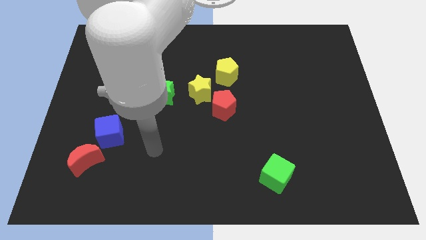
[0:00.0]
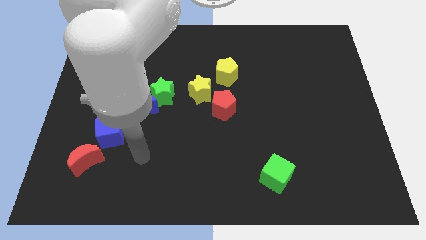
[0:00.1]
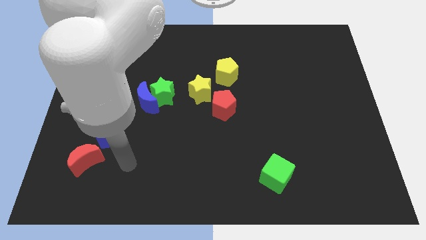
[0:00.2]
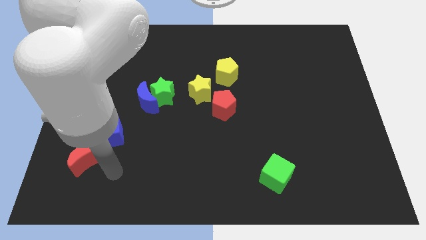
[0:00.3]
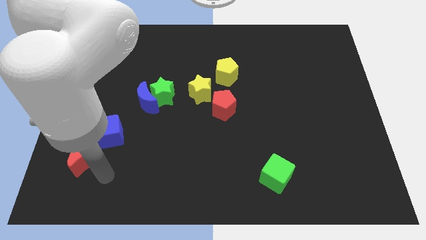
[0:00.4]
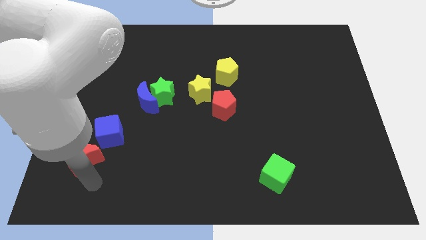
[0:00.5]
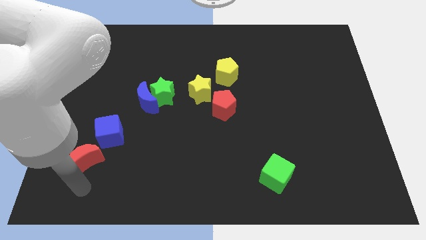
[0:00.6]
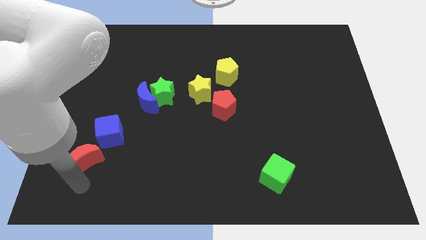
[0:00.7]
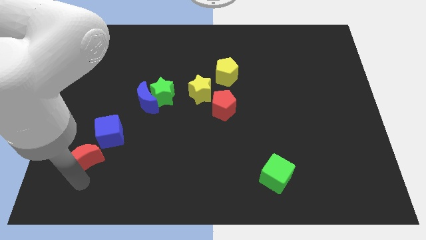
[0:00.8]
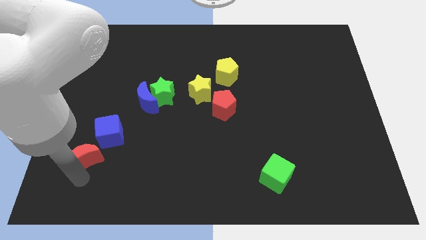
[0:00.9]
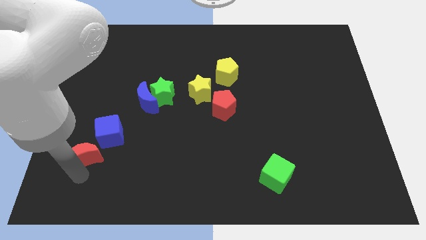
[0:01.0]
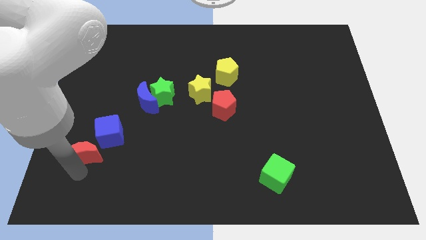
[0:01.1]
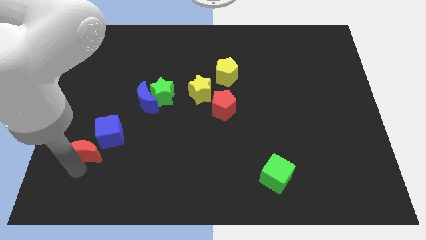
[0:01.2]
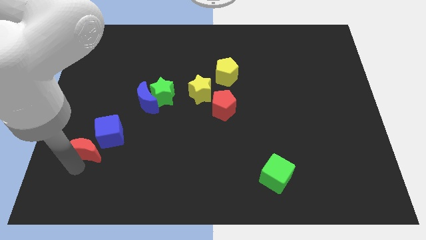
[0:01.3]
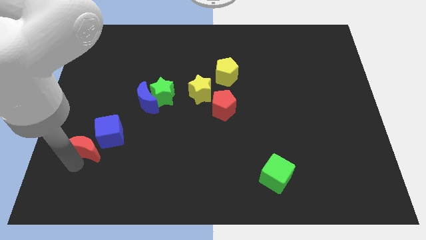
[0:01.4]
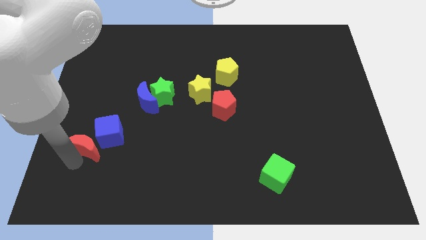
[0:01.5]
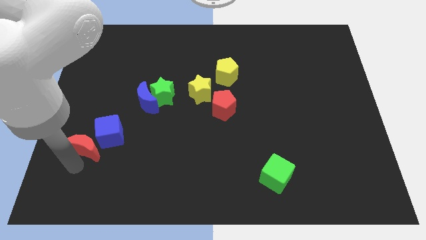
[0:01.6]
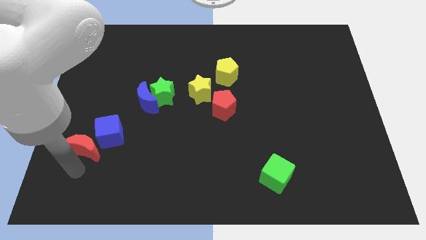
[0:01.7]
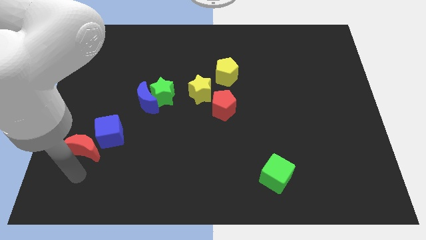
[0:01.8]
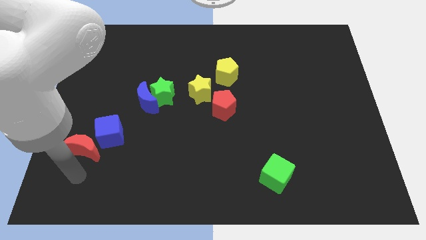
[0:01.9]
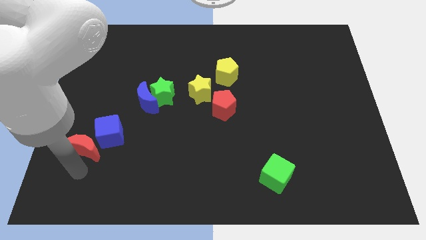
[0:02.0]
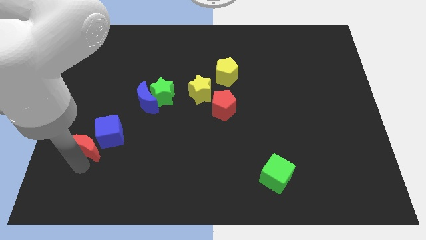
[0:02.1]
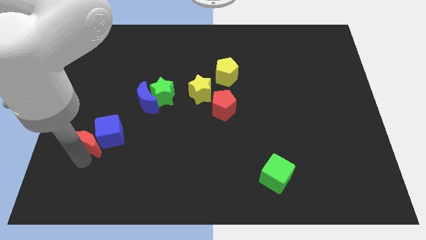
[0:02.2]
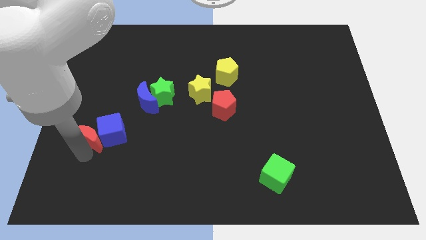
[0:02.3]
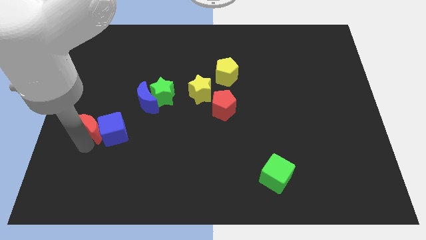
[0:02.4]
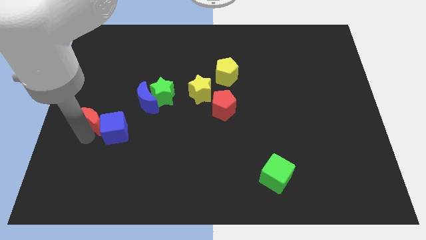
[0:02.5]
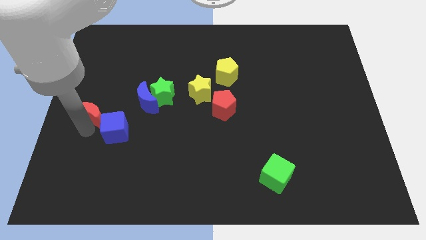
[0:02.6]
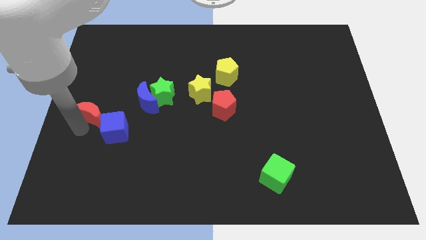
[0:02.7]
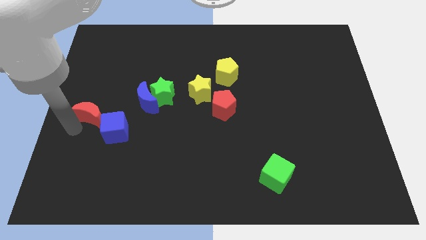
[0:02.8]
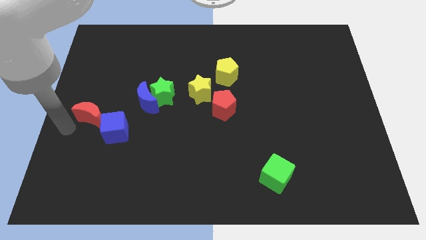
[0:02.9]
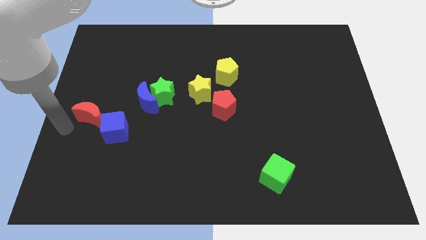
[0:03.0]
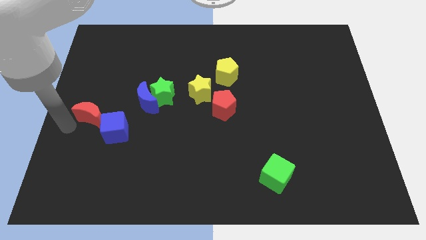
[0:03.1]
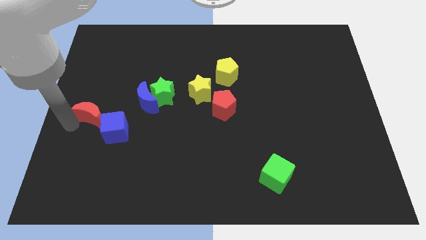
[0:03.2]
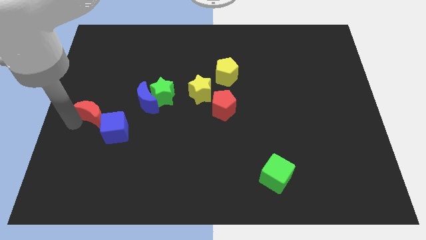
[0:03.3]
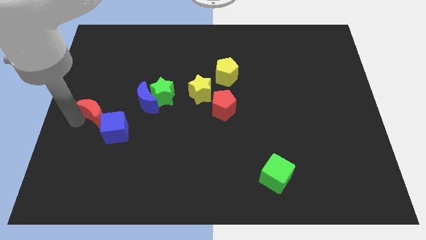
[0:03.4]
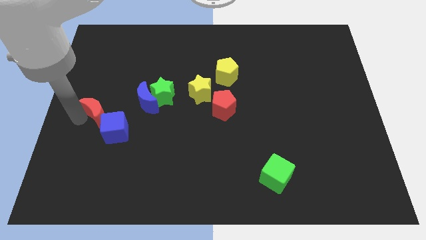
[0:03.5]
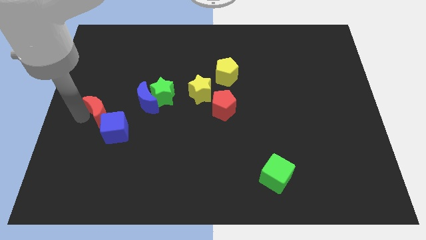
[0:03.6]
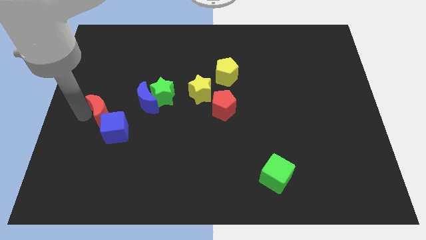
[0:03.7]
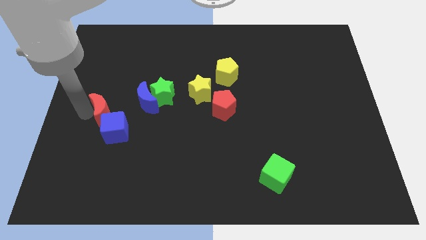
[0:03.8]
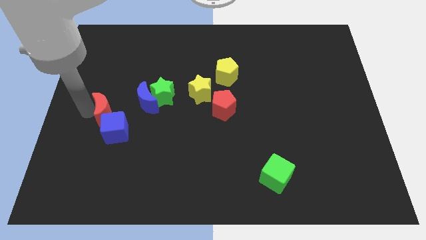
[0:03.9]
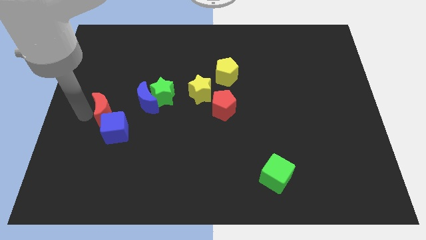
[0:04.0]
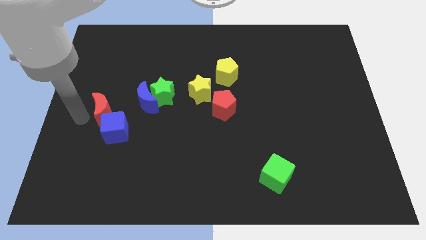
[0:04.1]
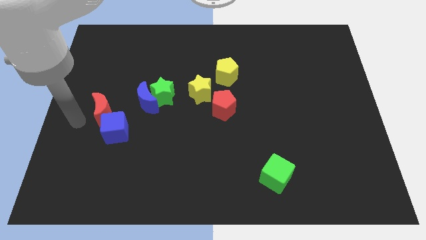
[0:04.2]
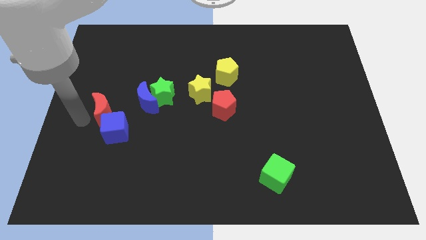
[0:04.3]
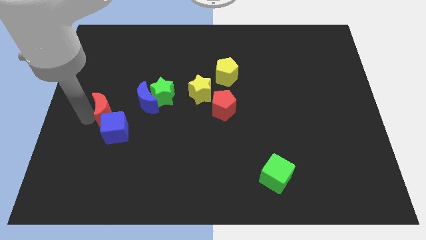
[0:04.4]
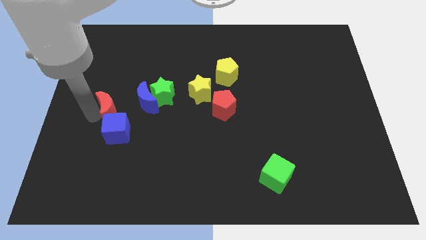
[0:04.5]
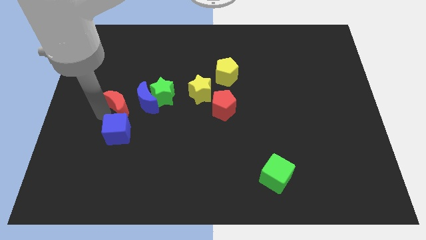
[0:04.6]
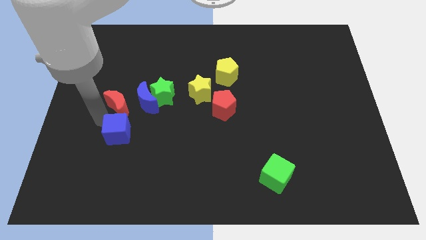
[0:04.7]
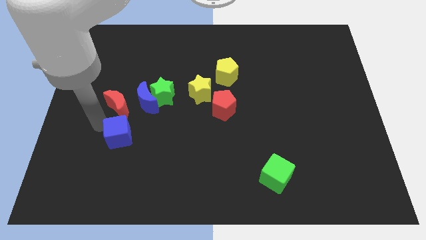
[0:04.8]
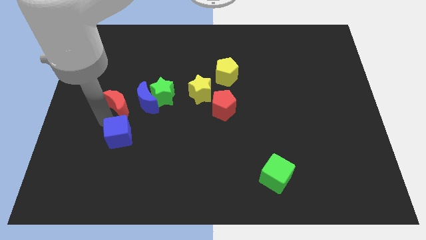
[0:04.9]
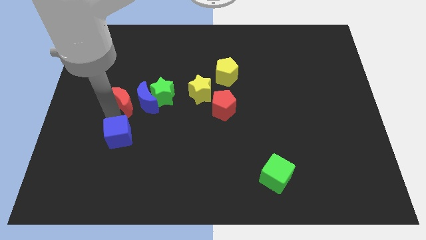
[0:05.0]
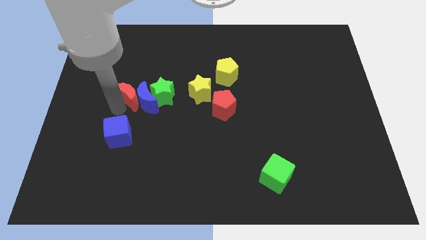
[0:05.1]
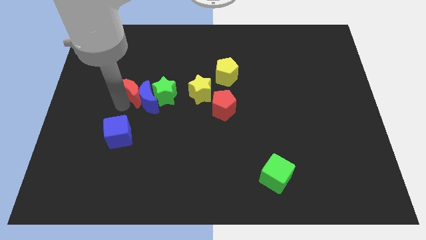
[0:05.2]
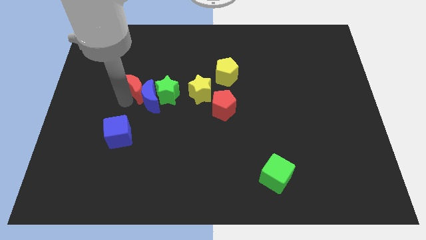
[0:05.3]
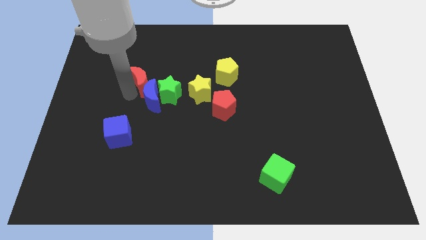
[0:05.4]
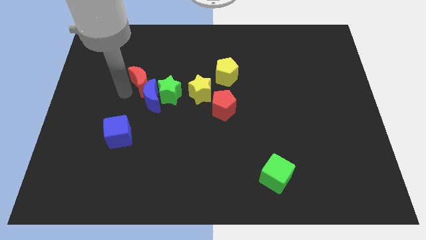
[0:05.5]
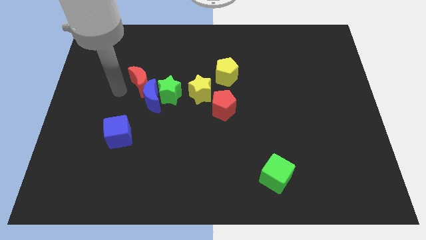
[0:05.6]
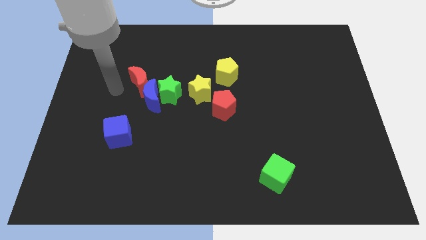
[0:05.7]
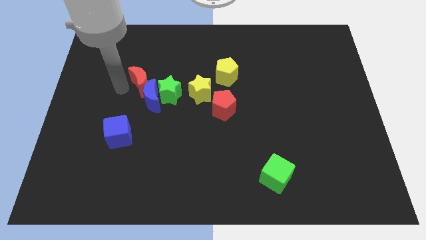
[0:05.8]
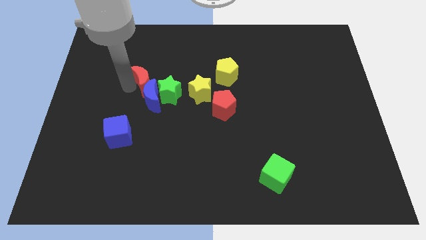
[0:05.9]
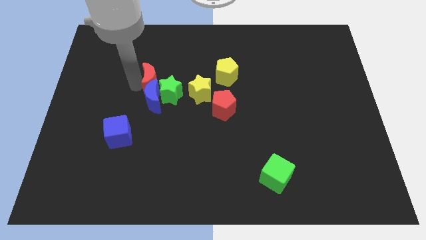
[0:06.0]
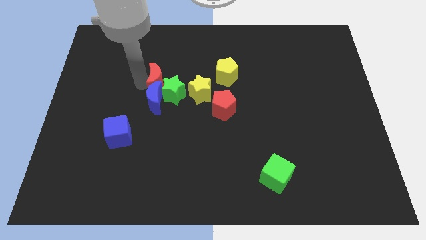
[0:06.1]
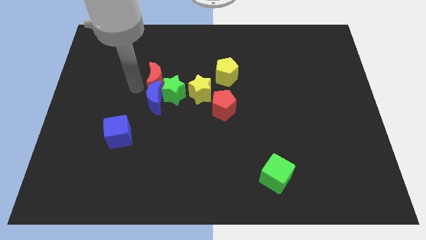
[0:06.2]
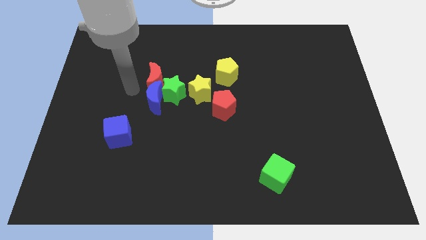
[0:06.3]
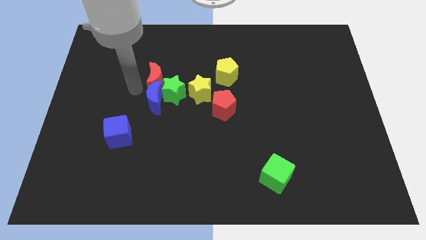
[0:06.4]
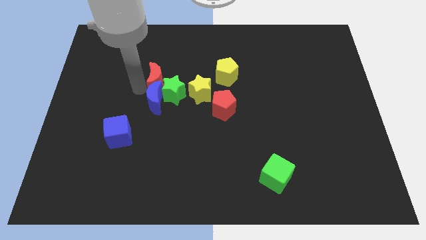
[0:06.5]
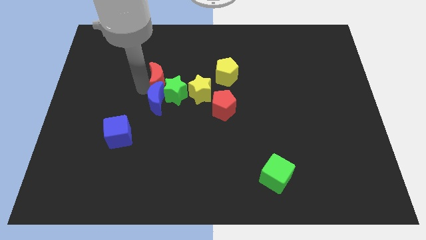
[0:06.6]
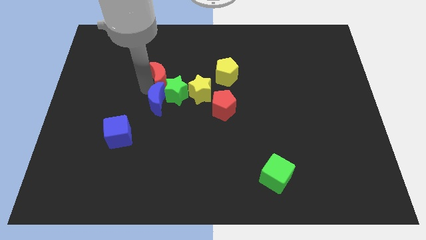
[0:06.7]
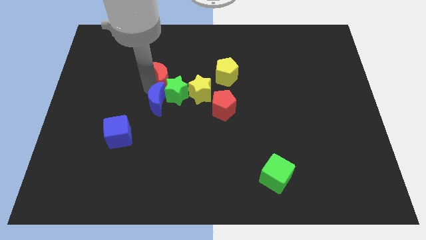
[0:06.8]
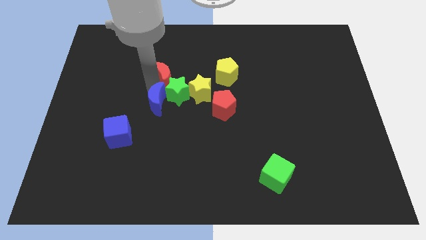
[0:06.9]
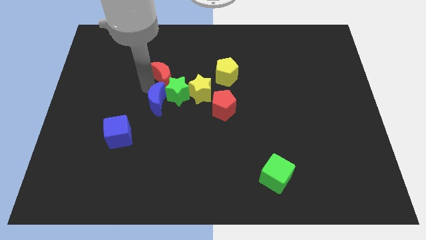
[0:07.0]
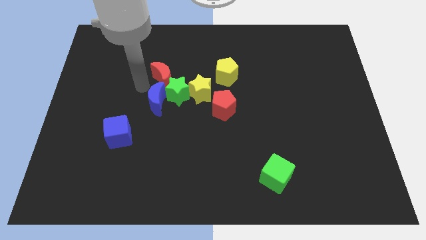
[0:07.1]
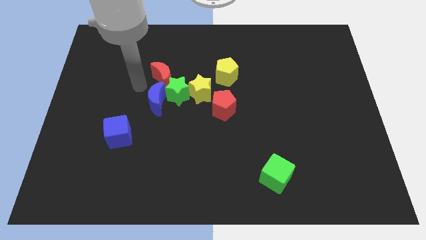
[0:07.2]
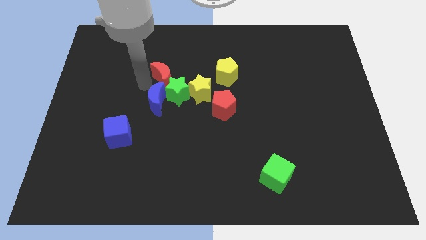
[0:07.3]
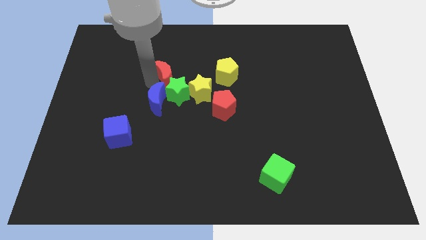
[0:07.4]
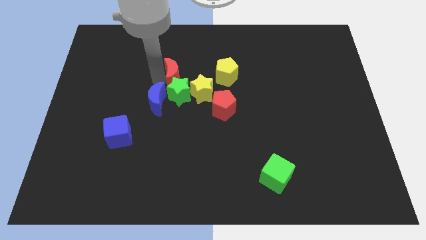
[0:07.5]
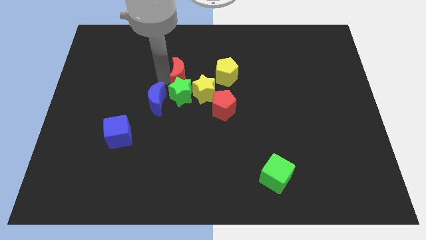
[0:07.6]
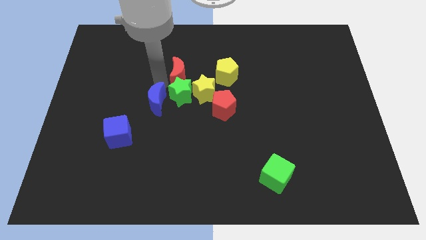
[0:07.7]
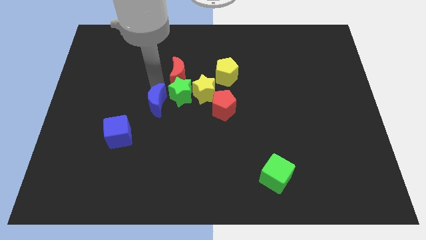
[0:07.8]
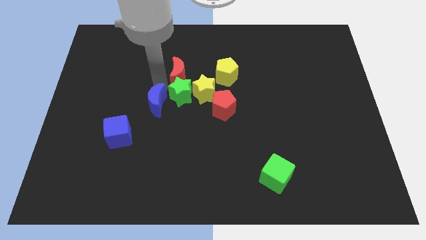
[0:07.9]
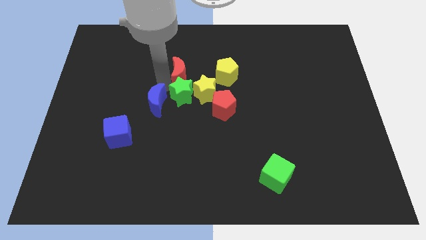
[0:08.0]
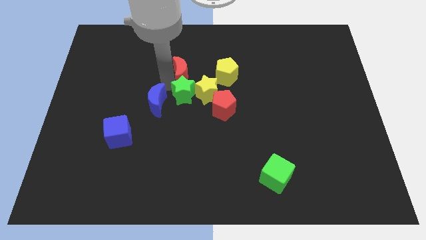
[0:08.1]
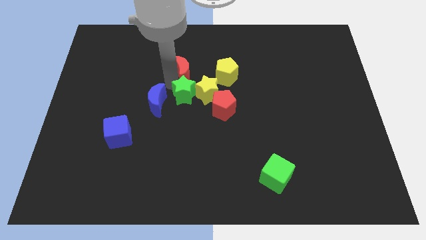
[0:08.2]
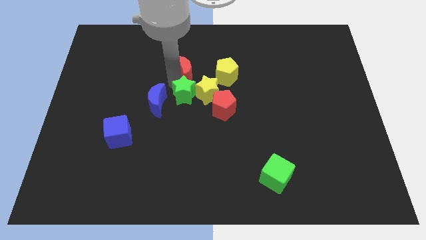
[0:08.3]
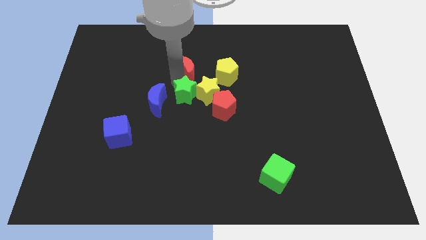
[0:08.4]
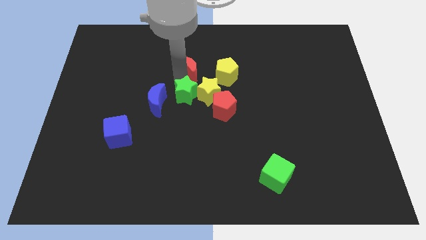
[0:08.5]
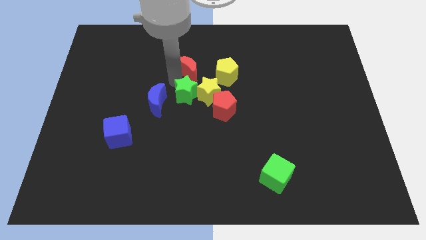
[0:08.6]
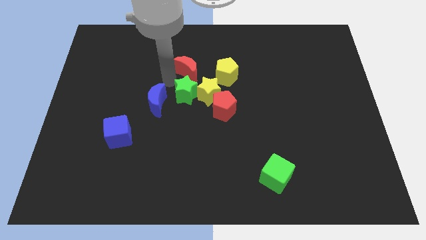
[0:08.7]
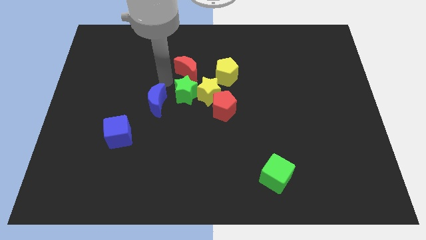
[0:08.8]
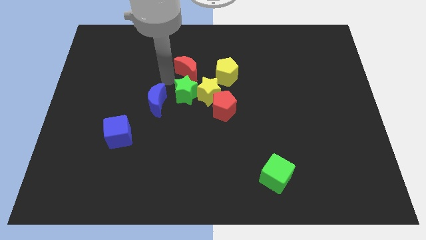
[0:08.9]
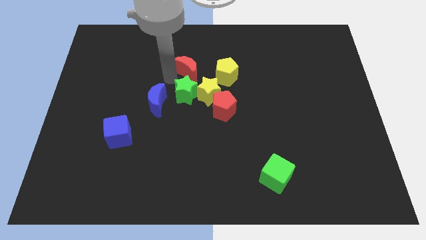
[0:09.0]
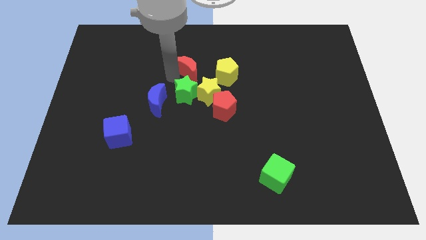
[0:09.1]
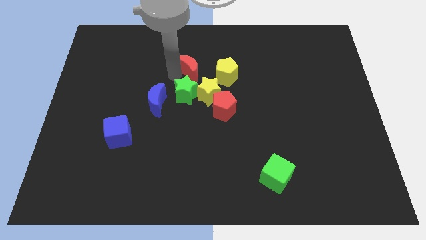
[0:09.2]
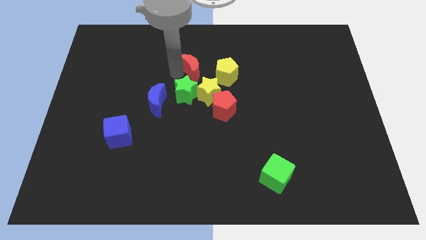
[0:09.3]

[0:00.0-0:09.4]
put the red moon above the yellow star
